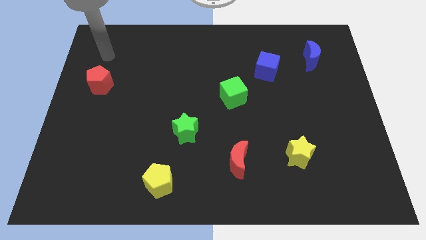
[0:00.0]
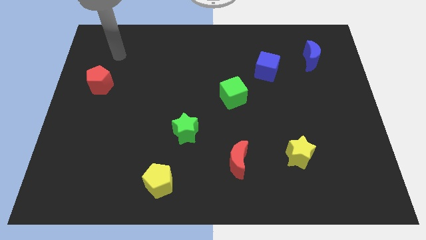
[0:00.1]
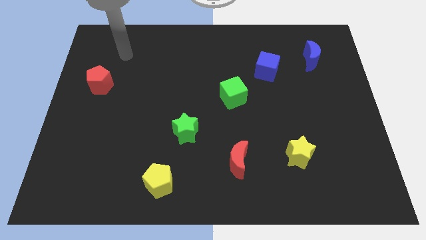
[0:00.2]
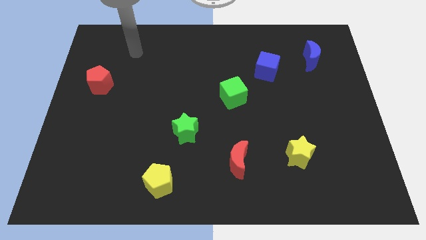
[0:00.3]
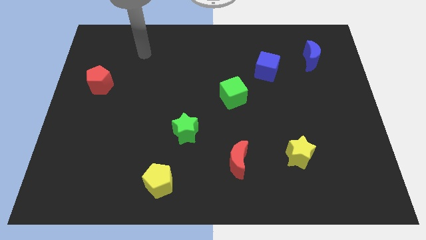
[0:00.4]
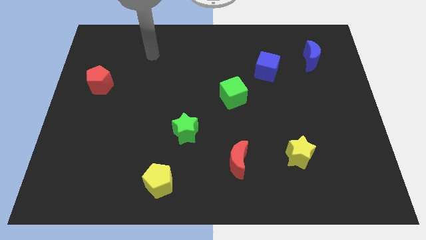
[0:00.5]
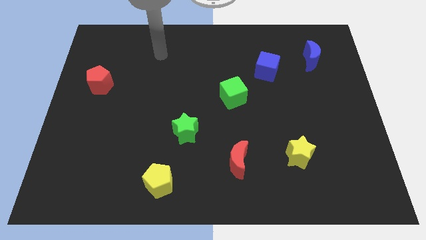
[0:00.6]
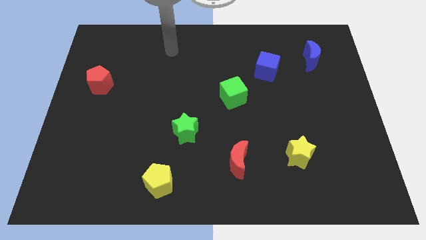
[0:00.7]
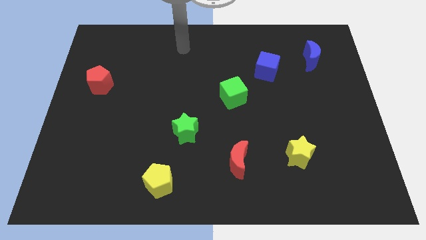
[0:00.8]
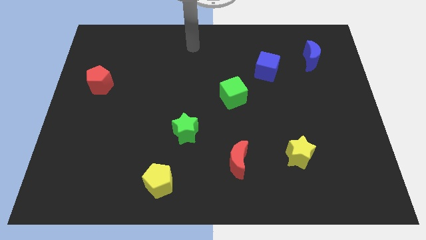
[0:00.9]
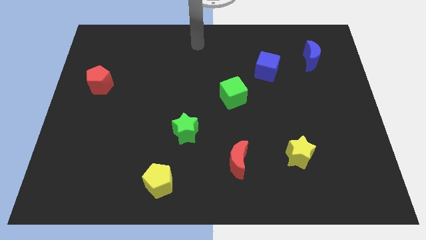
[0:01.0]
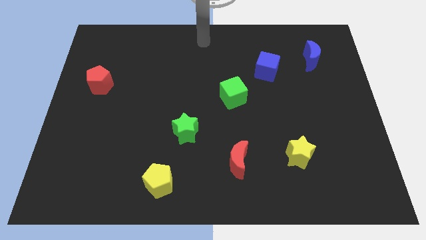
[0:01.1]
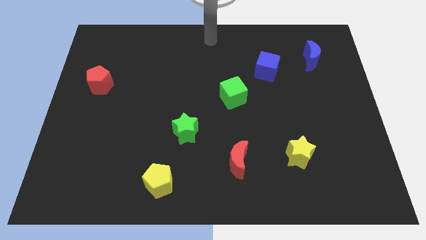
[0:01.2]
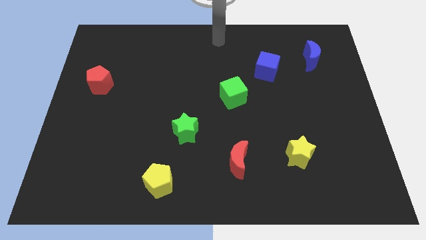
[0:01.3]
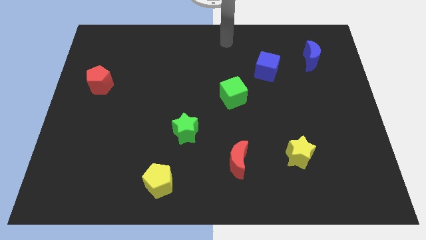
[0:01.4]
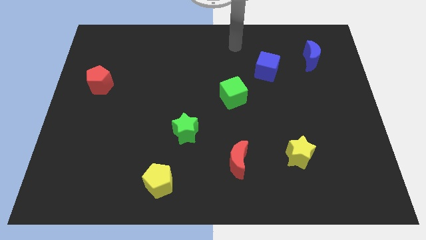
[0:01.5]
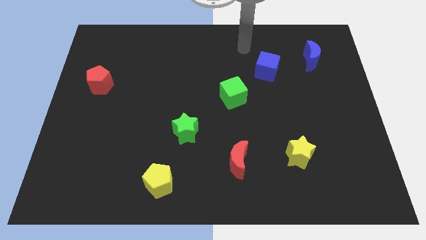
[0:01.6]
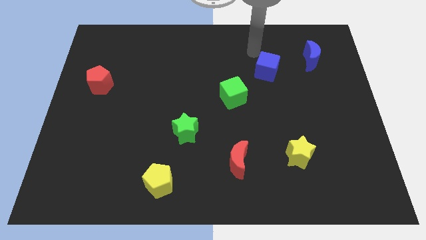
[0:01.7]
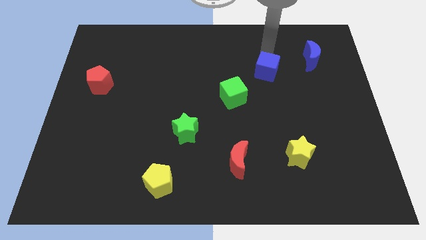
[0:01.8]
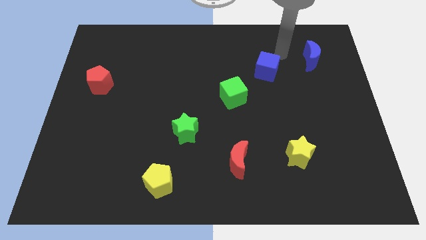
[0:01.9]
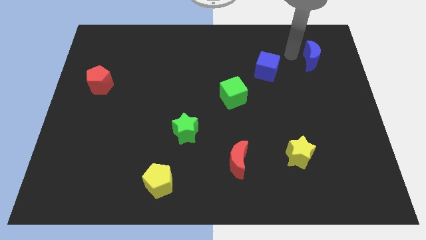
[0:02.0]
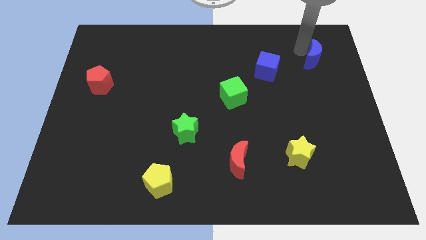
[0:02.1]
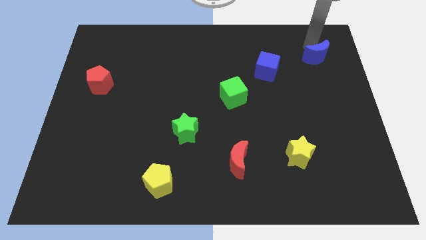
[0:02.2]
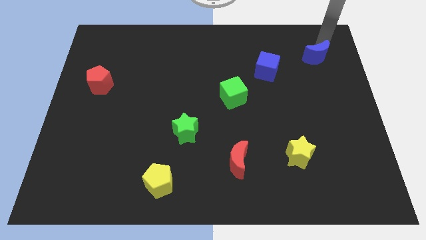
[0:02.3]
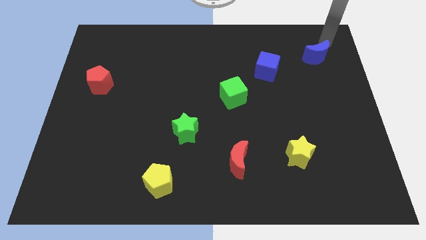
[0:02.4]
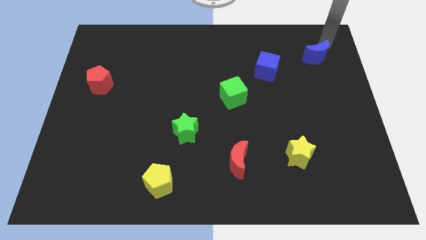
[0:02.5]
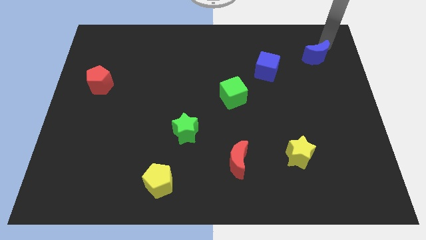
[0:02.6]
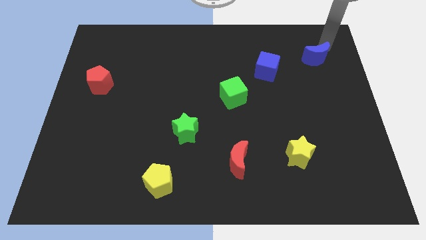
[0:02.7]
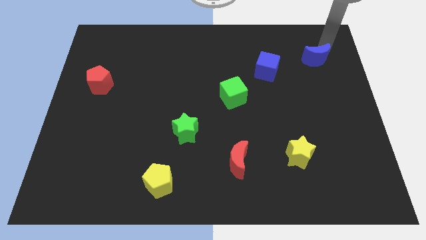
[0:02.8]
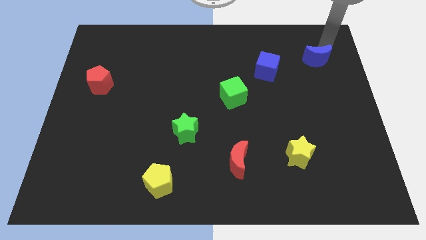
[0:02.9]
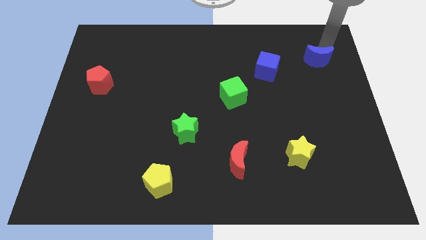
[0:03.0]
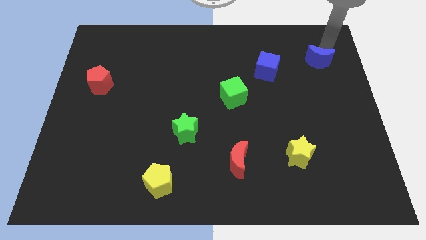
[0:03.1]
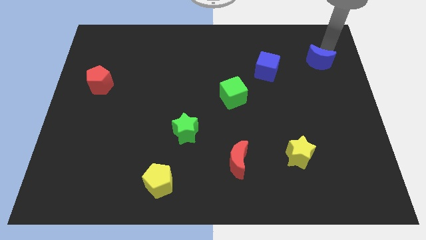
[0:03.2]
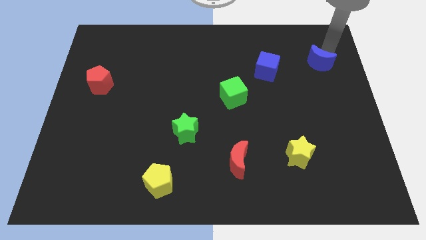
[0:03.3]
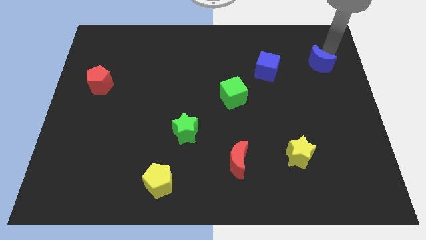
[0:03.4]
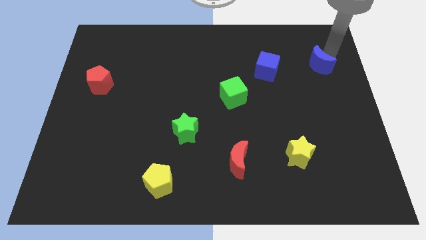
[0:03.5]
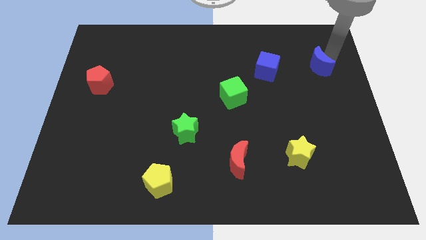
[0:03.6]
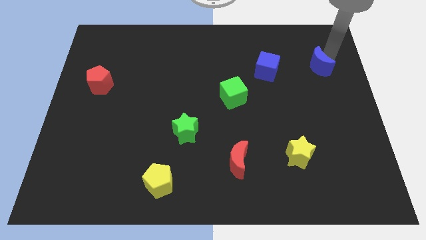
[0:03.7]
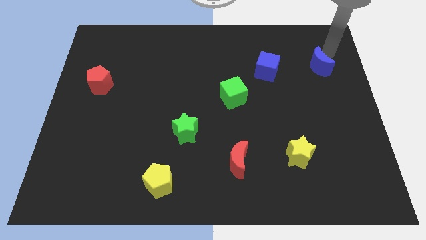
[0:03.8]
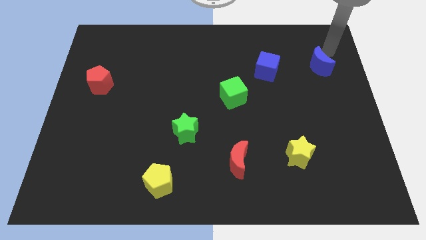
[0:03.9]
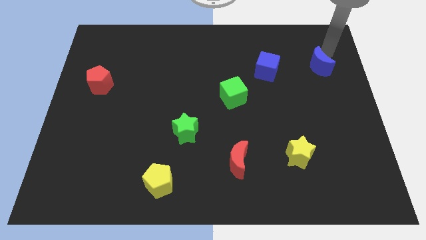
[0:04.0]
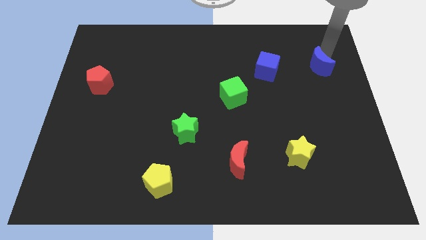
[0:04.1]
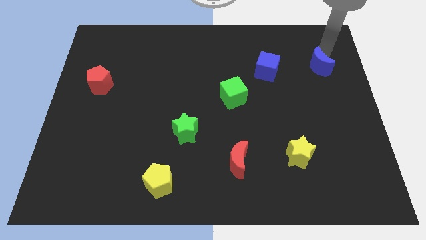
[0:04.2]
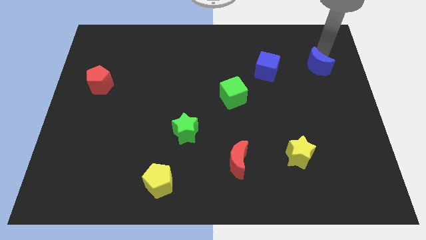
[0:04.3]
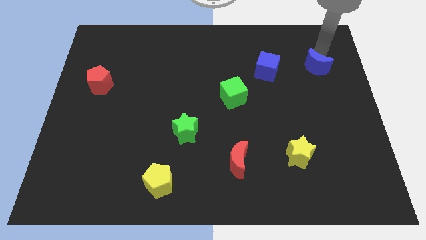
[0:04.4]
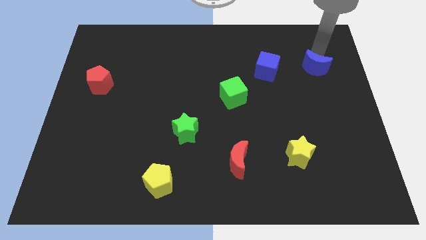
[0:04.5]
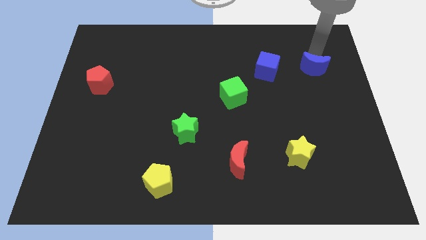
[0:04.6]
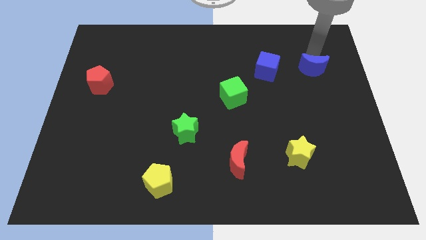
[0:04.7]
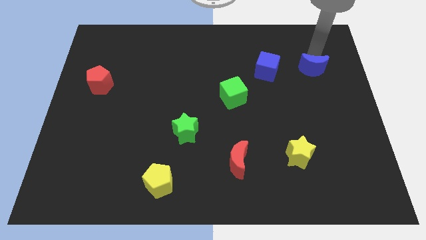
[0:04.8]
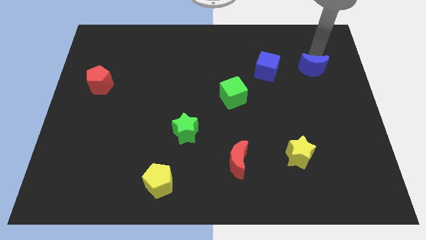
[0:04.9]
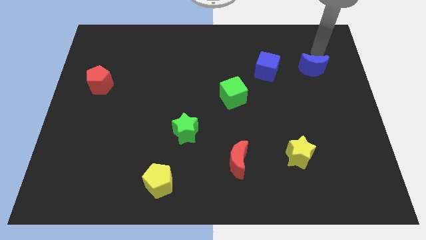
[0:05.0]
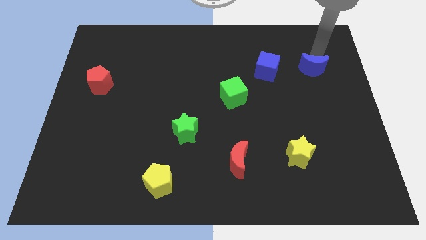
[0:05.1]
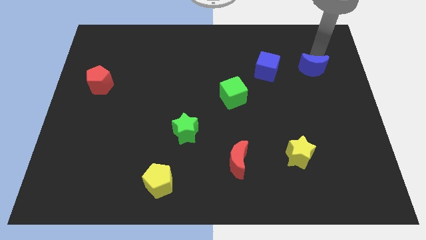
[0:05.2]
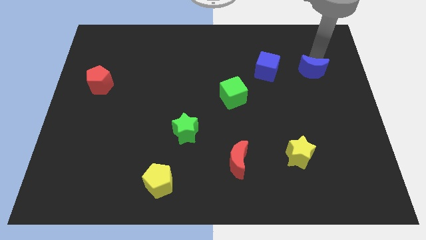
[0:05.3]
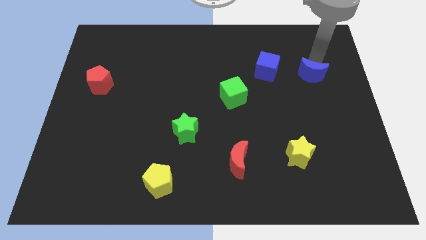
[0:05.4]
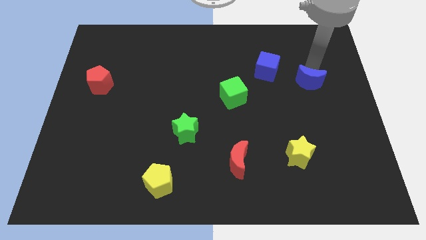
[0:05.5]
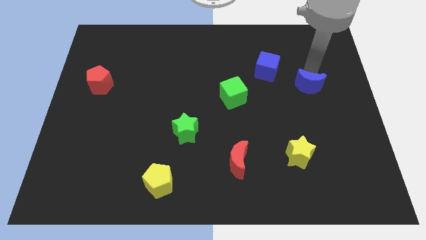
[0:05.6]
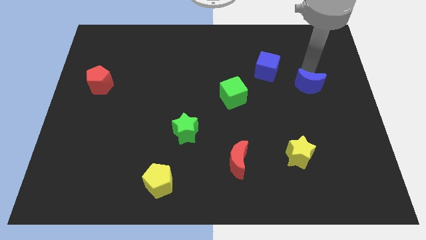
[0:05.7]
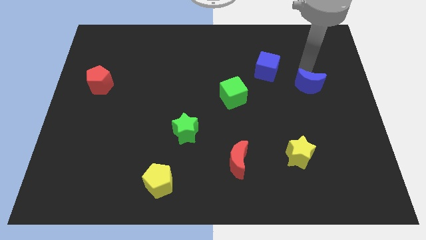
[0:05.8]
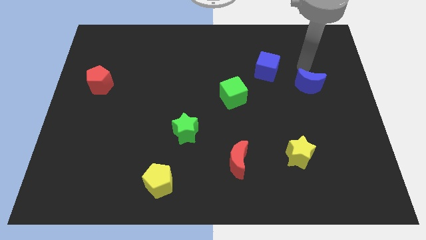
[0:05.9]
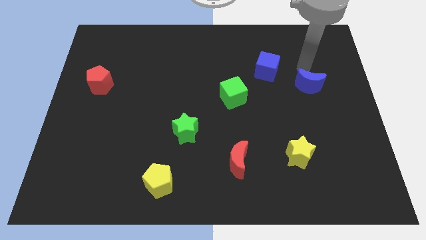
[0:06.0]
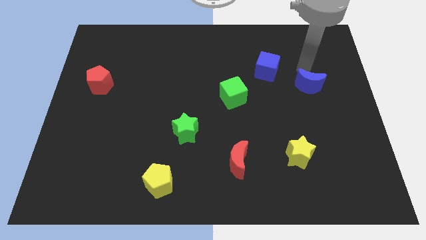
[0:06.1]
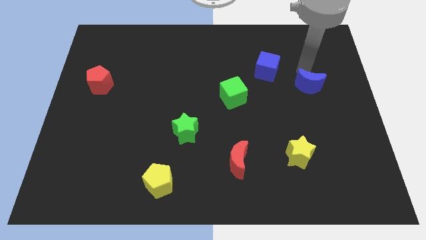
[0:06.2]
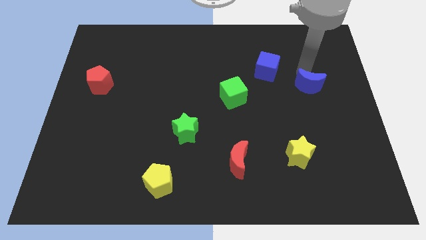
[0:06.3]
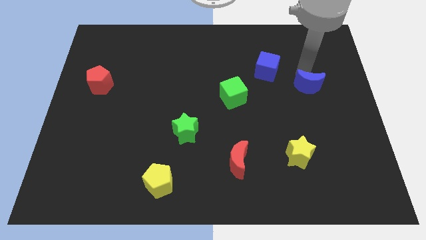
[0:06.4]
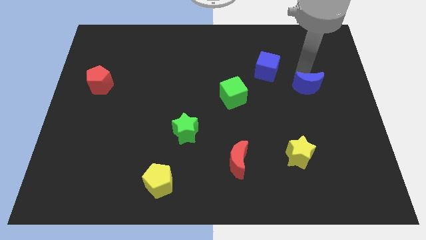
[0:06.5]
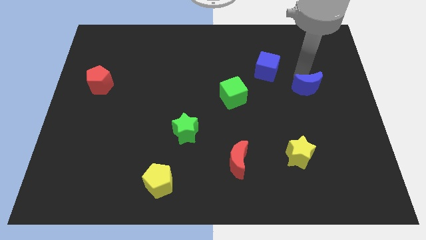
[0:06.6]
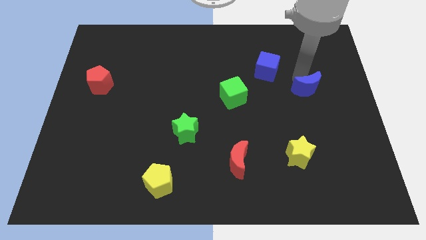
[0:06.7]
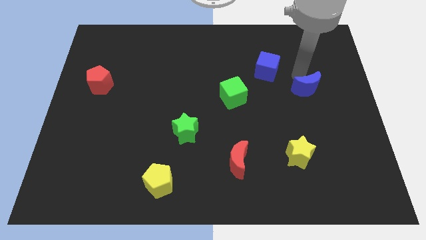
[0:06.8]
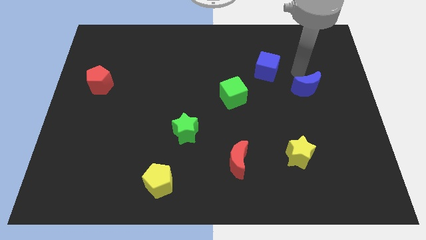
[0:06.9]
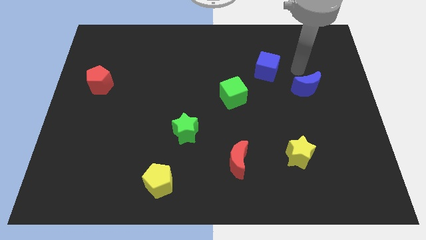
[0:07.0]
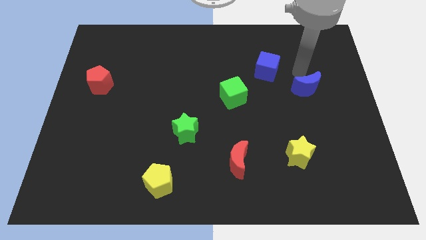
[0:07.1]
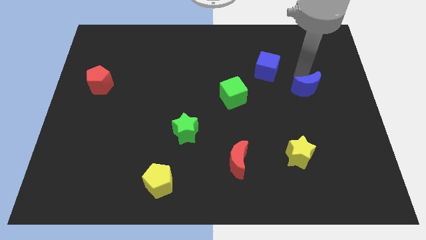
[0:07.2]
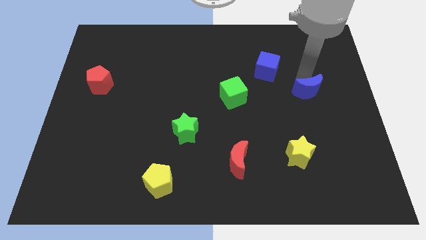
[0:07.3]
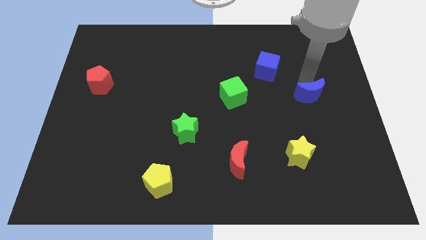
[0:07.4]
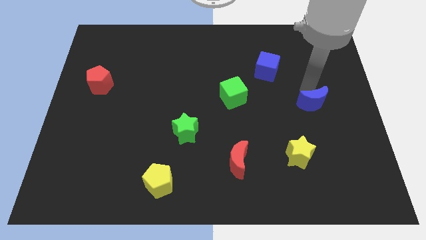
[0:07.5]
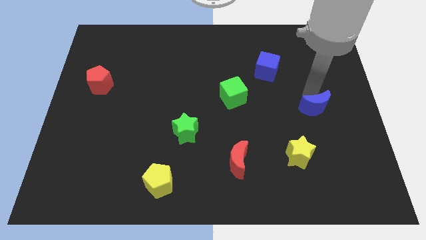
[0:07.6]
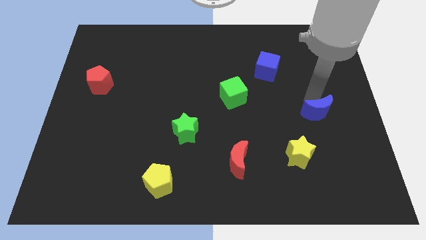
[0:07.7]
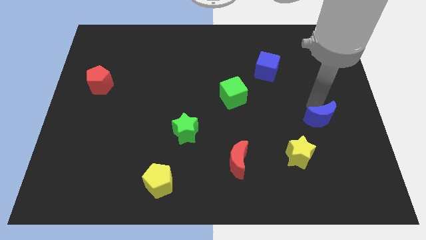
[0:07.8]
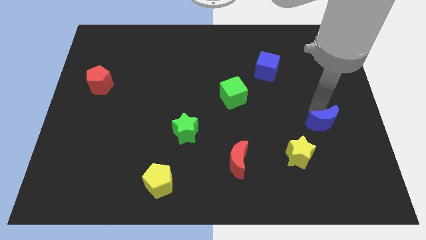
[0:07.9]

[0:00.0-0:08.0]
slide the blue moon downwards
